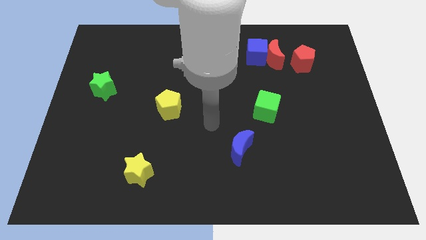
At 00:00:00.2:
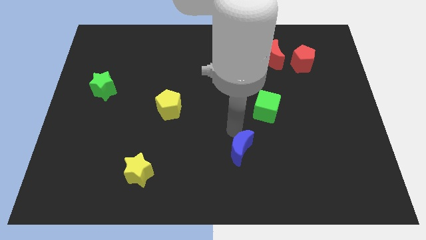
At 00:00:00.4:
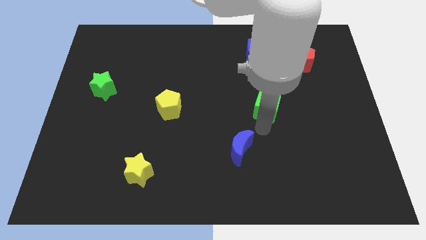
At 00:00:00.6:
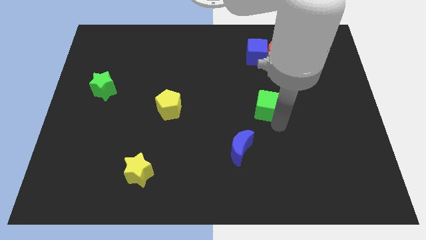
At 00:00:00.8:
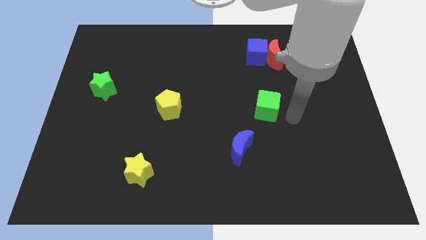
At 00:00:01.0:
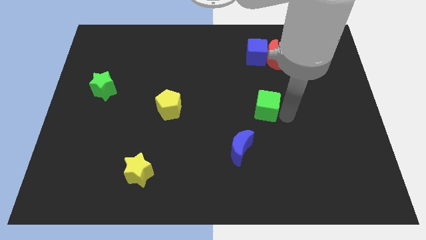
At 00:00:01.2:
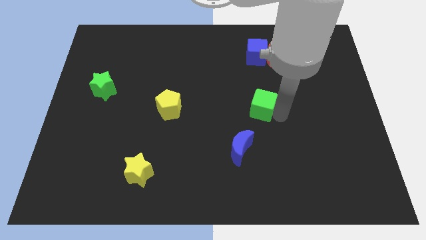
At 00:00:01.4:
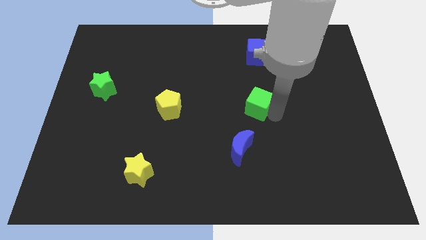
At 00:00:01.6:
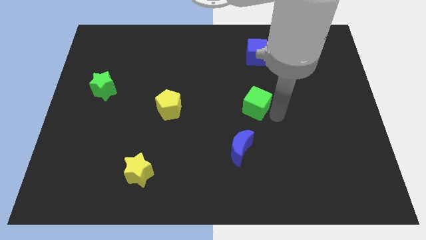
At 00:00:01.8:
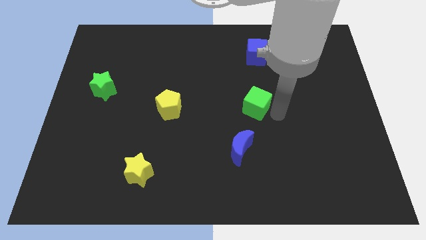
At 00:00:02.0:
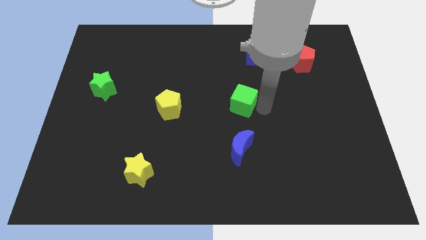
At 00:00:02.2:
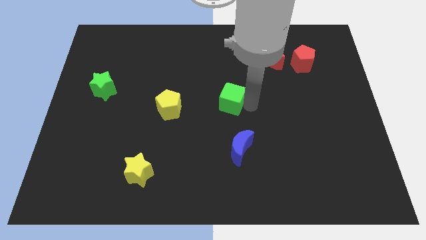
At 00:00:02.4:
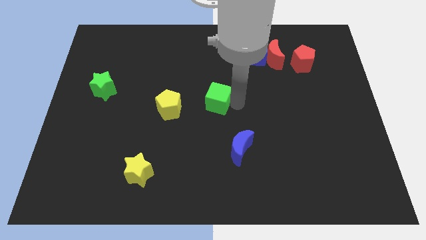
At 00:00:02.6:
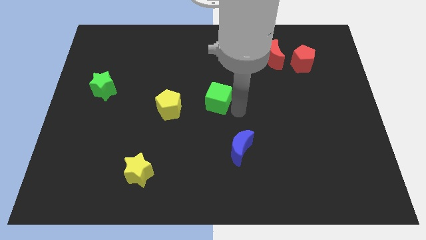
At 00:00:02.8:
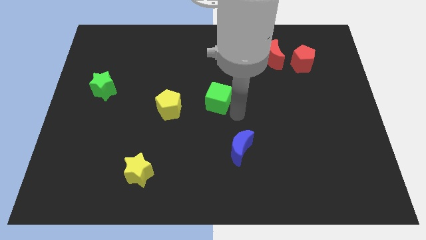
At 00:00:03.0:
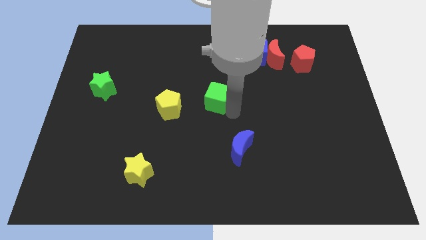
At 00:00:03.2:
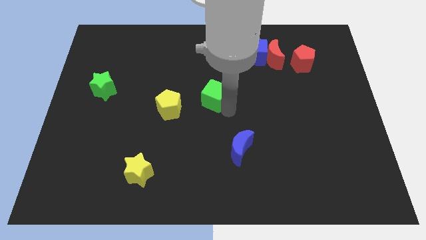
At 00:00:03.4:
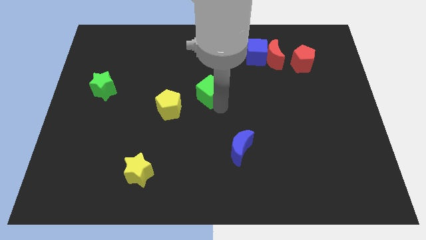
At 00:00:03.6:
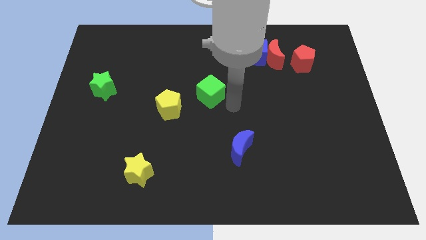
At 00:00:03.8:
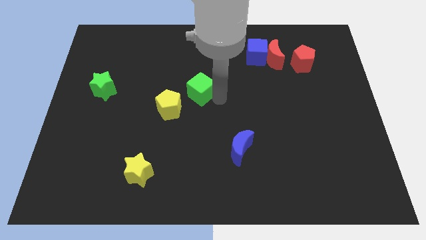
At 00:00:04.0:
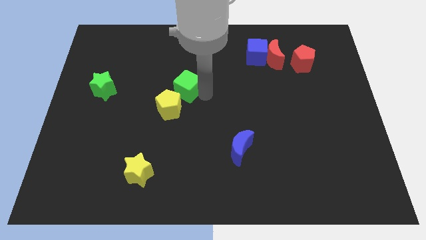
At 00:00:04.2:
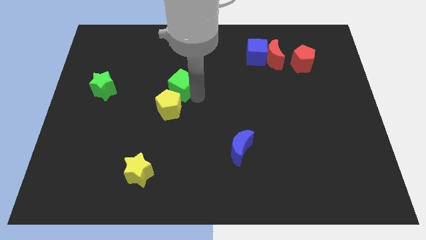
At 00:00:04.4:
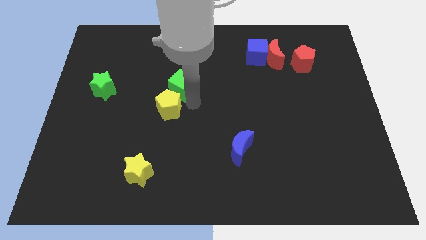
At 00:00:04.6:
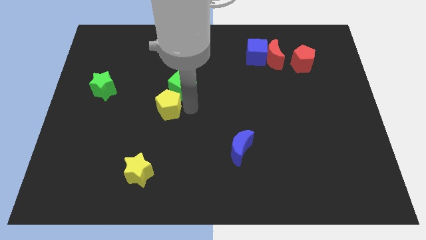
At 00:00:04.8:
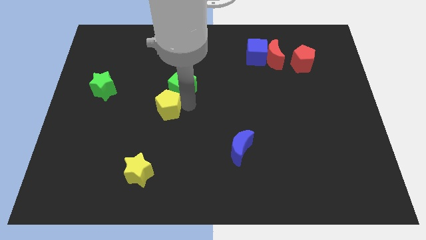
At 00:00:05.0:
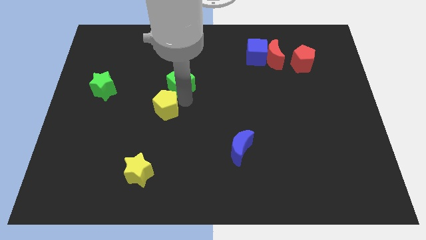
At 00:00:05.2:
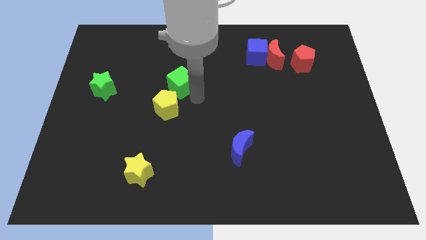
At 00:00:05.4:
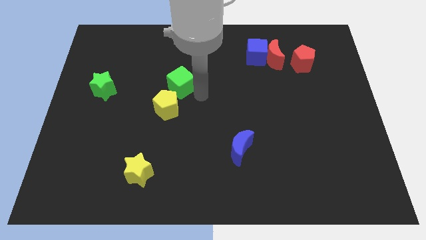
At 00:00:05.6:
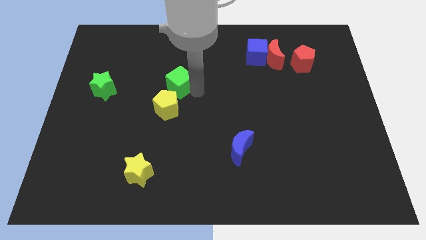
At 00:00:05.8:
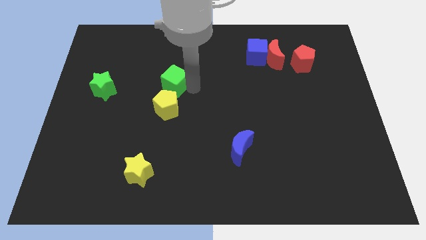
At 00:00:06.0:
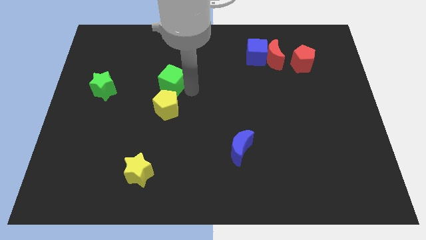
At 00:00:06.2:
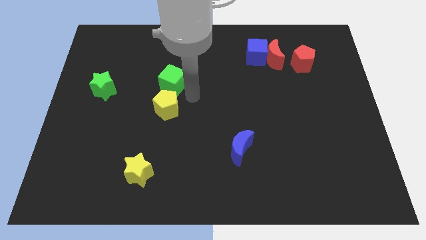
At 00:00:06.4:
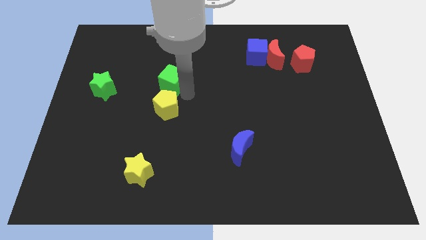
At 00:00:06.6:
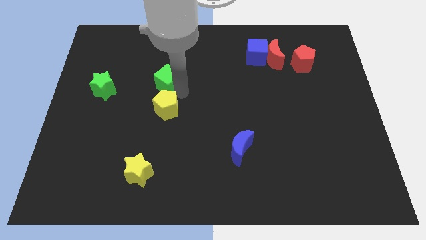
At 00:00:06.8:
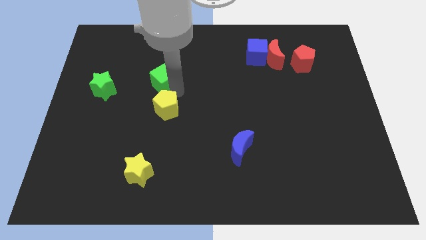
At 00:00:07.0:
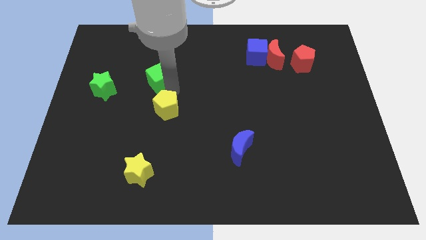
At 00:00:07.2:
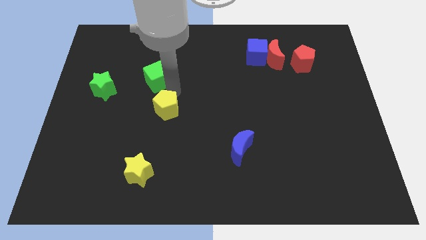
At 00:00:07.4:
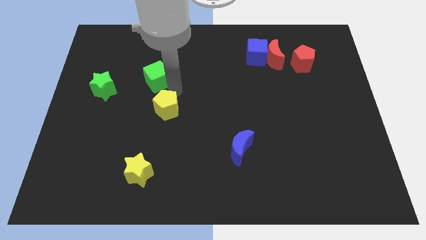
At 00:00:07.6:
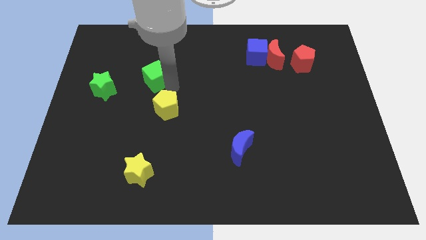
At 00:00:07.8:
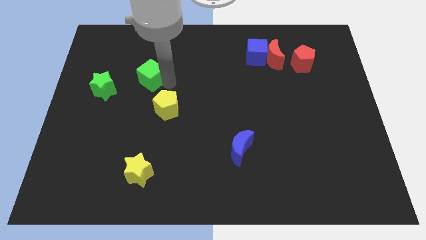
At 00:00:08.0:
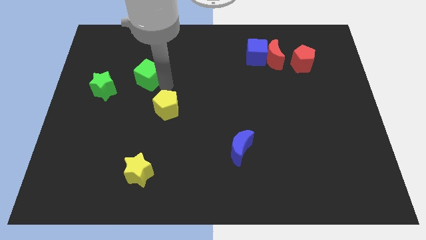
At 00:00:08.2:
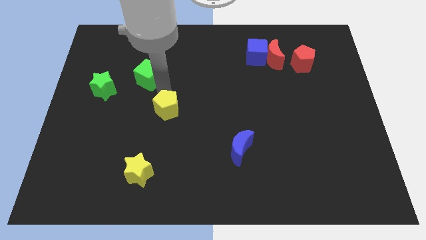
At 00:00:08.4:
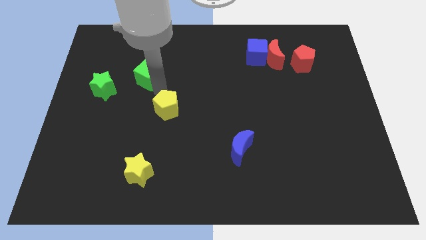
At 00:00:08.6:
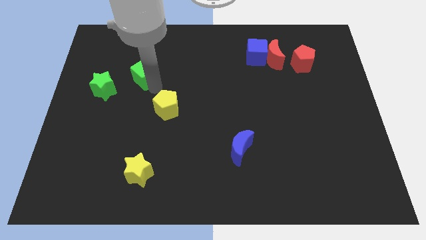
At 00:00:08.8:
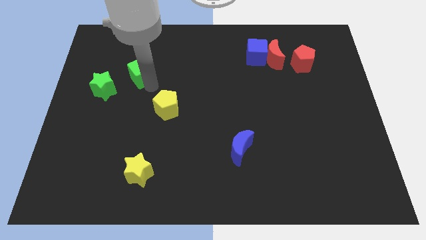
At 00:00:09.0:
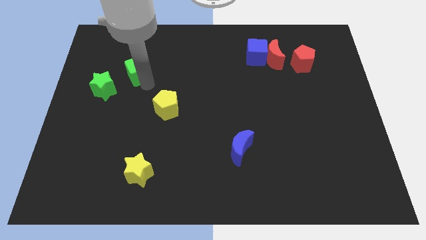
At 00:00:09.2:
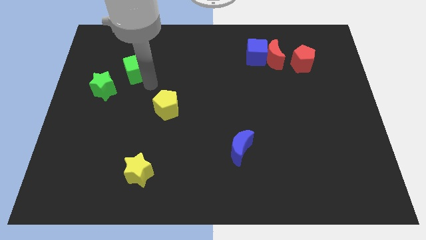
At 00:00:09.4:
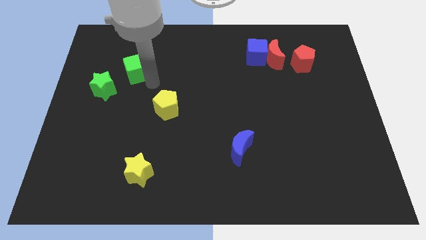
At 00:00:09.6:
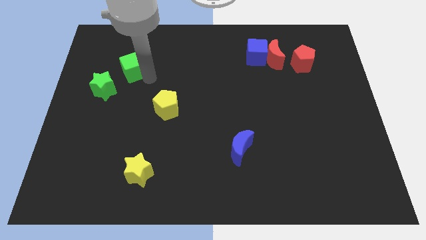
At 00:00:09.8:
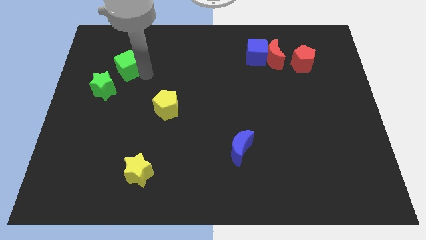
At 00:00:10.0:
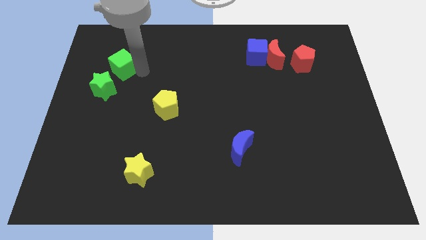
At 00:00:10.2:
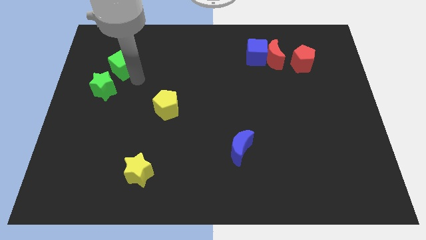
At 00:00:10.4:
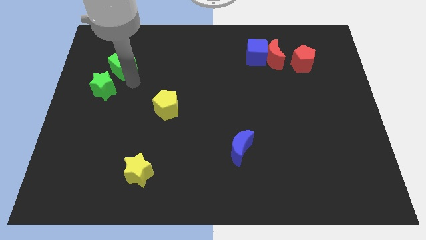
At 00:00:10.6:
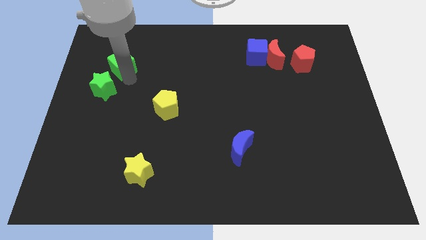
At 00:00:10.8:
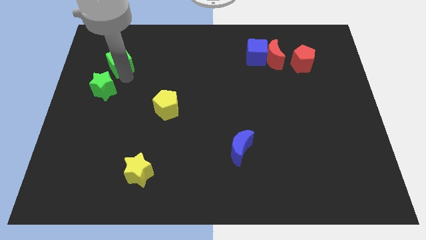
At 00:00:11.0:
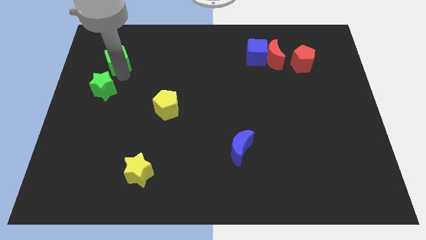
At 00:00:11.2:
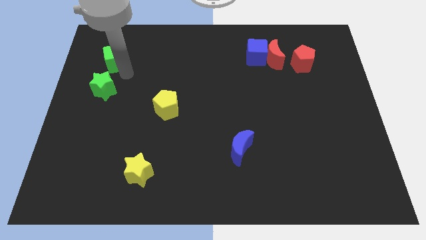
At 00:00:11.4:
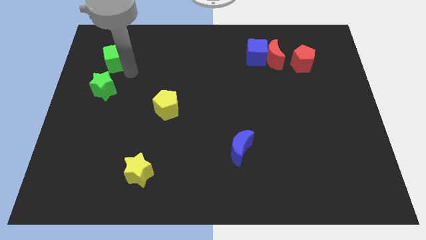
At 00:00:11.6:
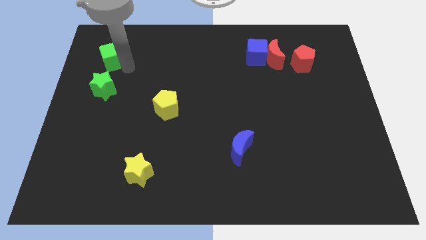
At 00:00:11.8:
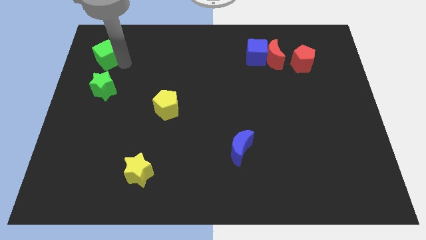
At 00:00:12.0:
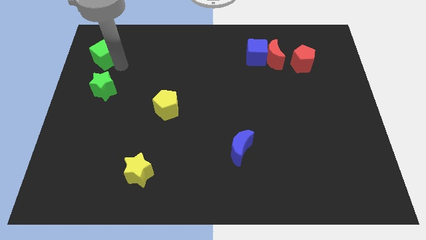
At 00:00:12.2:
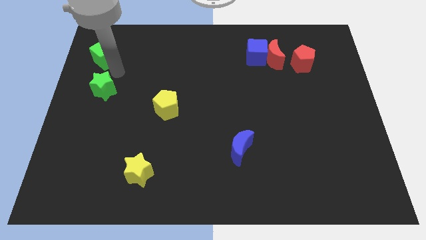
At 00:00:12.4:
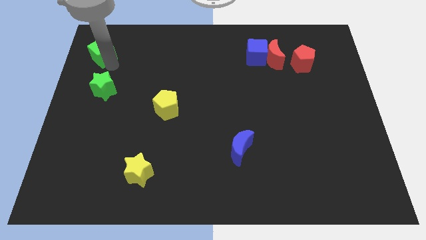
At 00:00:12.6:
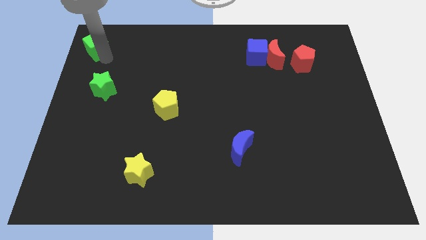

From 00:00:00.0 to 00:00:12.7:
move the green cube to the top left corner

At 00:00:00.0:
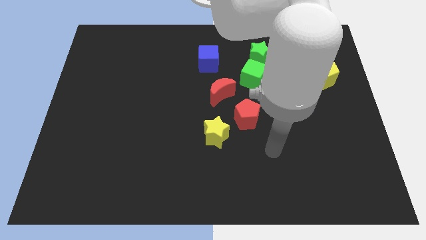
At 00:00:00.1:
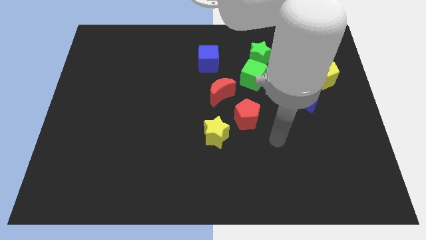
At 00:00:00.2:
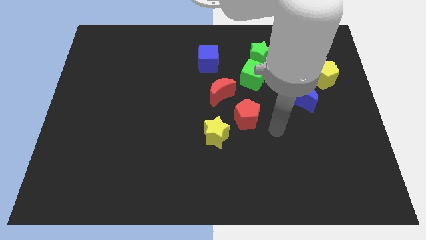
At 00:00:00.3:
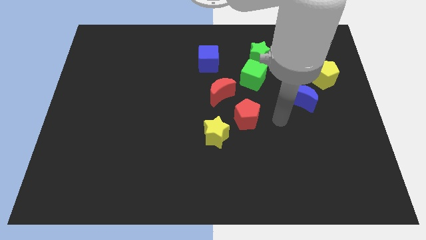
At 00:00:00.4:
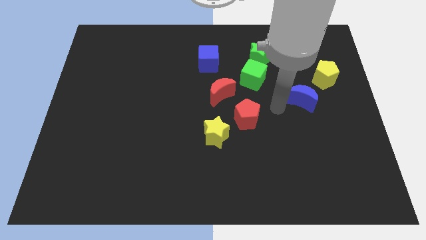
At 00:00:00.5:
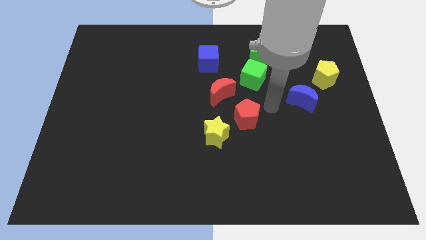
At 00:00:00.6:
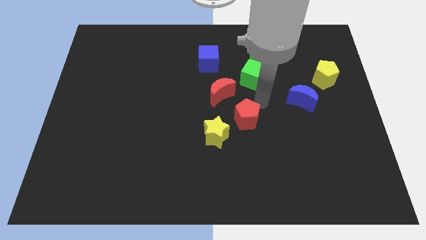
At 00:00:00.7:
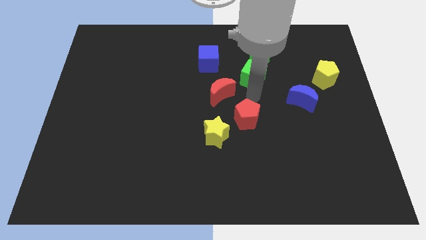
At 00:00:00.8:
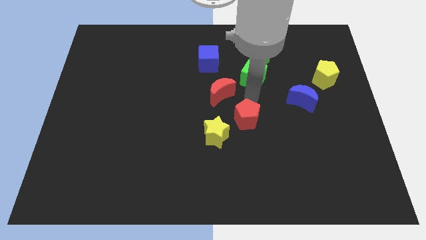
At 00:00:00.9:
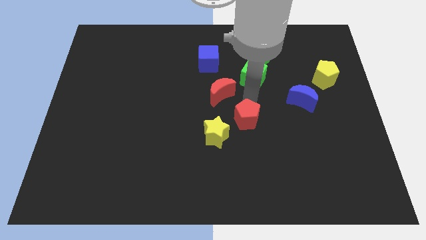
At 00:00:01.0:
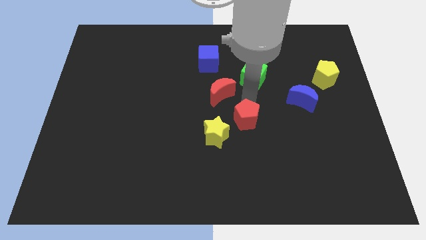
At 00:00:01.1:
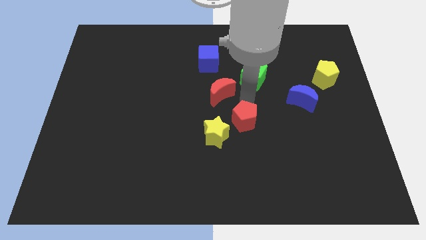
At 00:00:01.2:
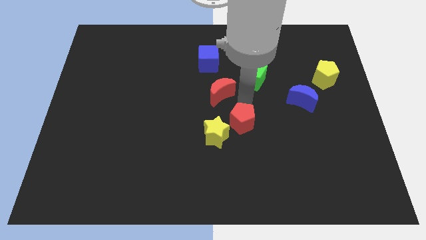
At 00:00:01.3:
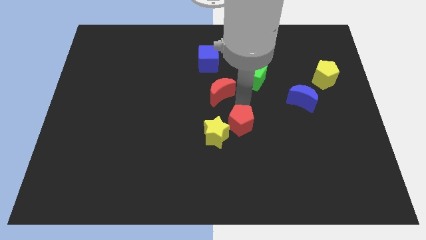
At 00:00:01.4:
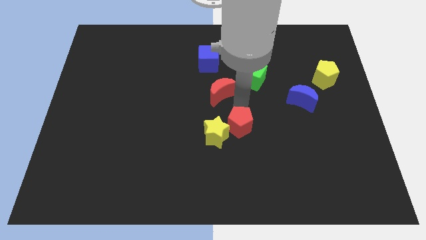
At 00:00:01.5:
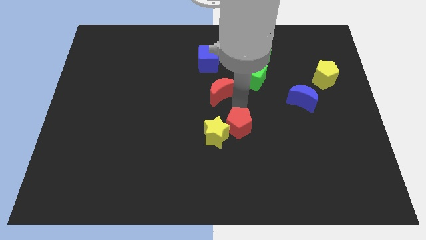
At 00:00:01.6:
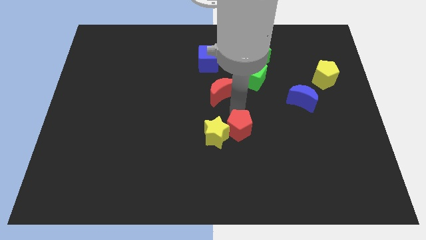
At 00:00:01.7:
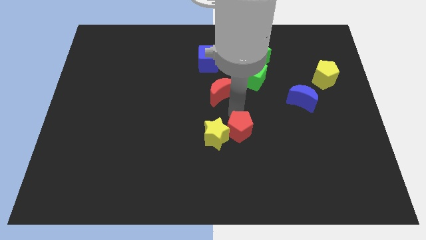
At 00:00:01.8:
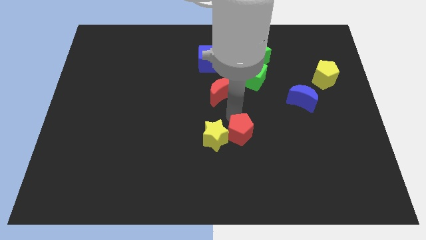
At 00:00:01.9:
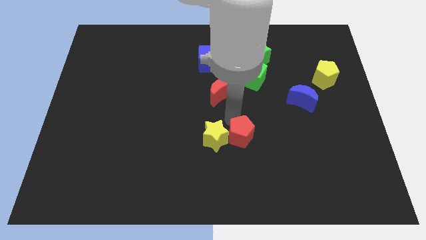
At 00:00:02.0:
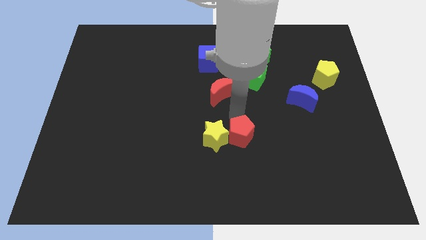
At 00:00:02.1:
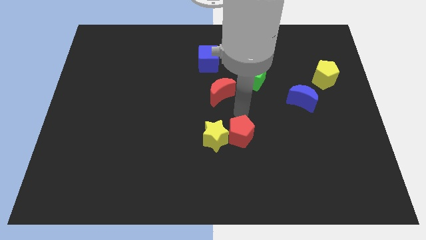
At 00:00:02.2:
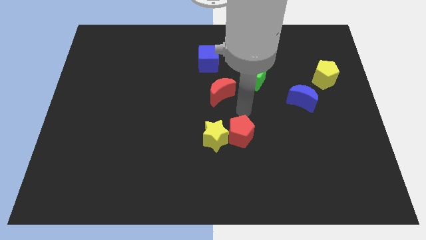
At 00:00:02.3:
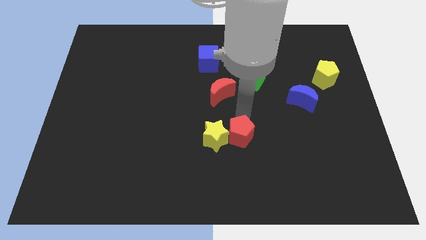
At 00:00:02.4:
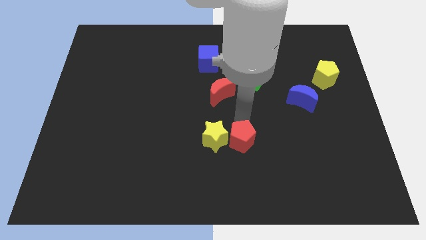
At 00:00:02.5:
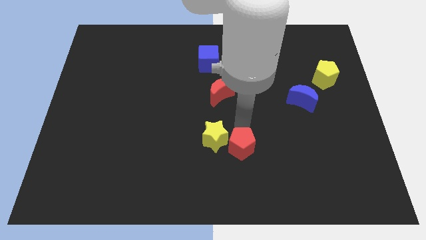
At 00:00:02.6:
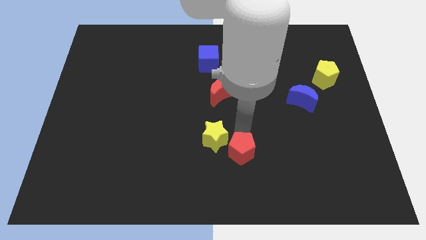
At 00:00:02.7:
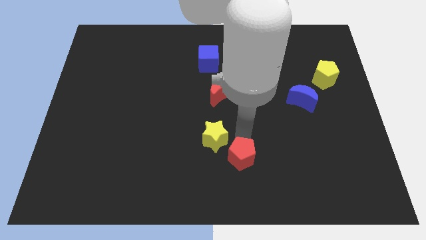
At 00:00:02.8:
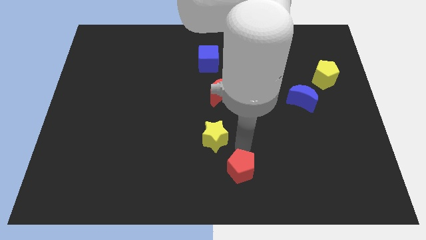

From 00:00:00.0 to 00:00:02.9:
move the red pentagon to the bottom side
